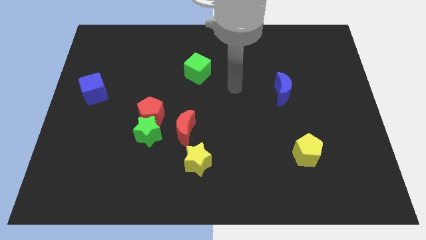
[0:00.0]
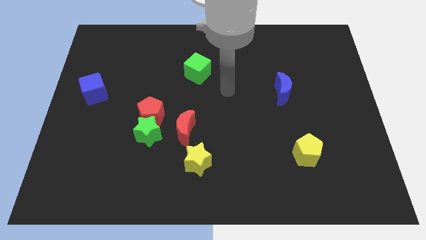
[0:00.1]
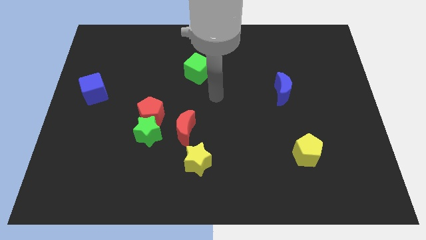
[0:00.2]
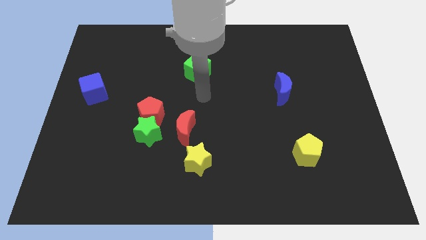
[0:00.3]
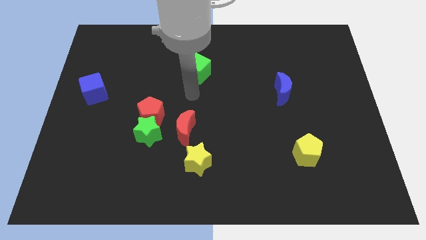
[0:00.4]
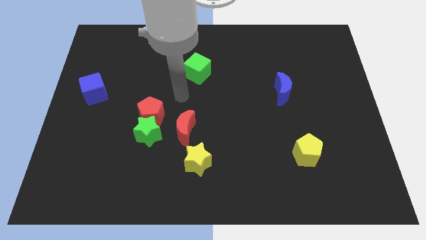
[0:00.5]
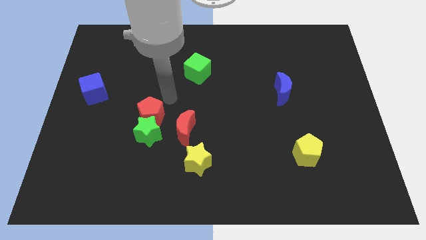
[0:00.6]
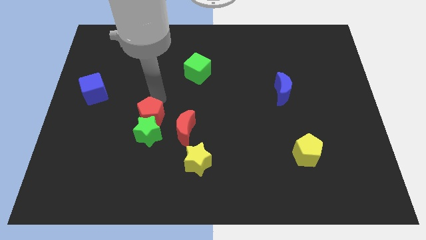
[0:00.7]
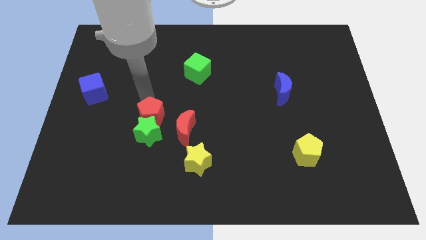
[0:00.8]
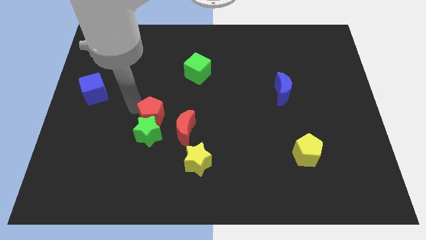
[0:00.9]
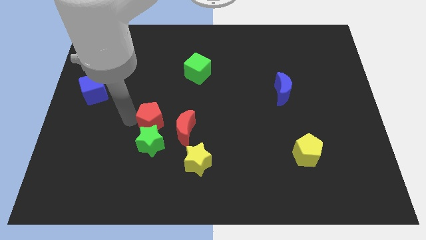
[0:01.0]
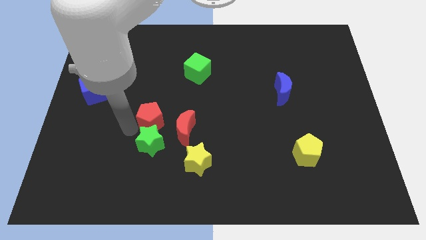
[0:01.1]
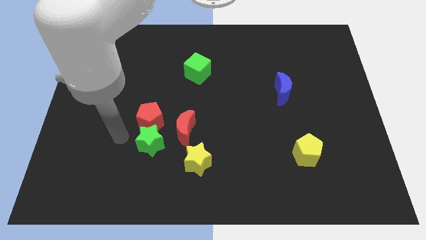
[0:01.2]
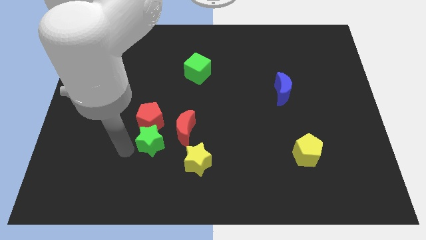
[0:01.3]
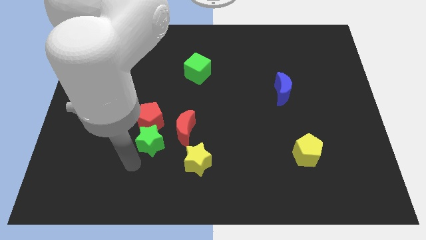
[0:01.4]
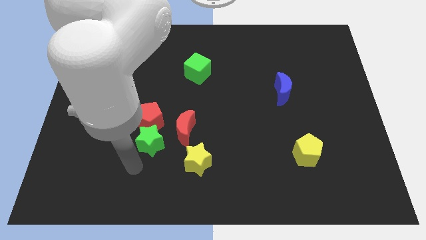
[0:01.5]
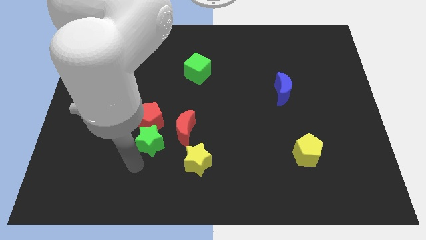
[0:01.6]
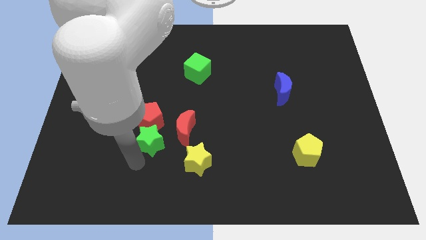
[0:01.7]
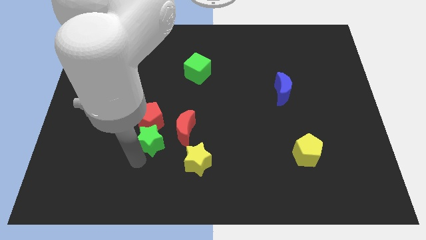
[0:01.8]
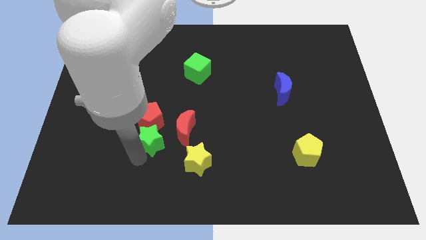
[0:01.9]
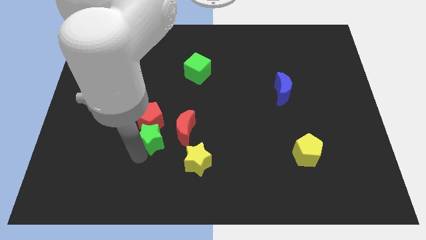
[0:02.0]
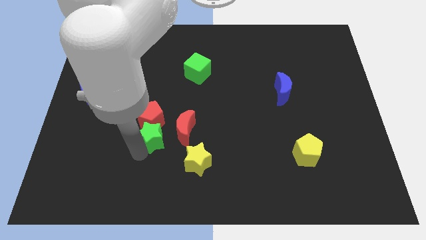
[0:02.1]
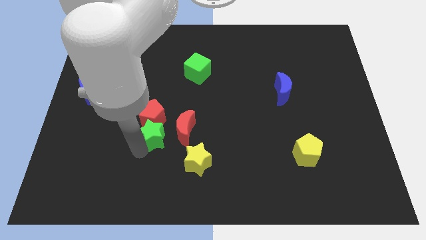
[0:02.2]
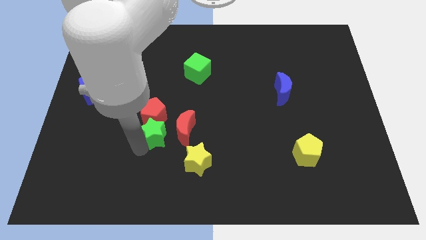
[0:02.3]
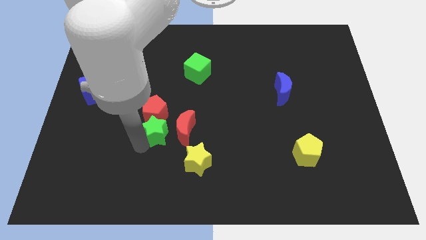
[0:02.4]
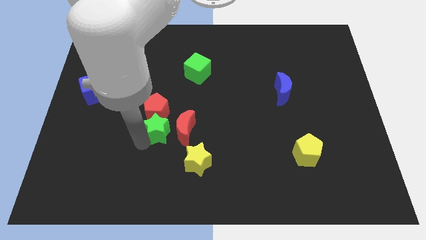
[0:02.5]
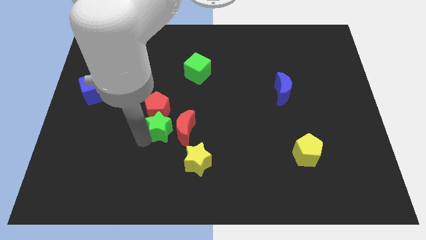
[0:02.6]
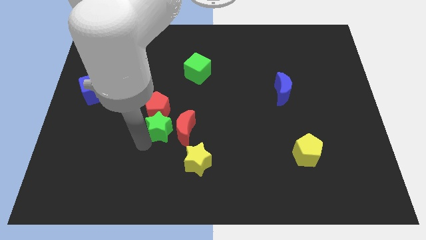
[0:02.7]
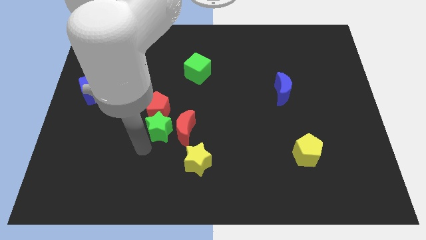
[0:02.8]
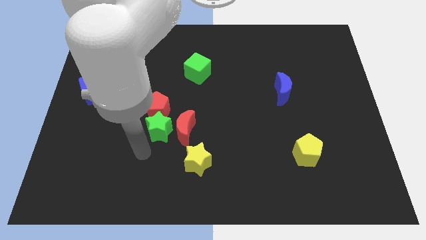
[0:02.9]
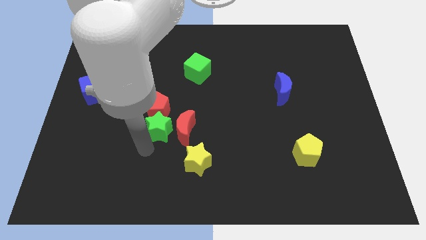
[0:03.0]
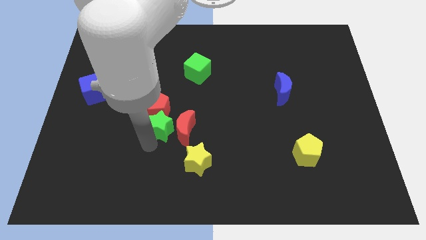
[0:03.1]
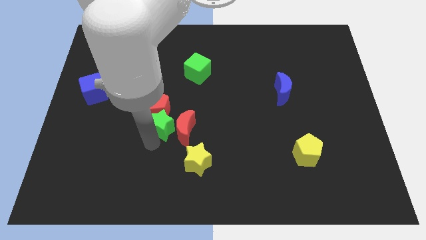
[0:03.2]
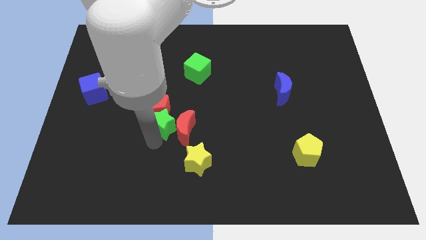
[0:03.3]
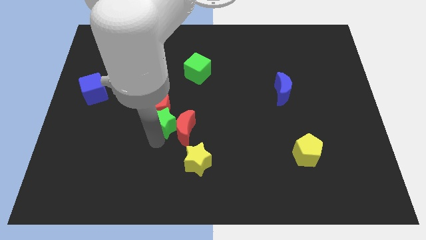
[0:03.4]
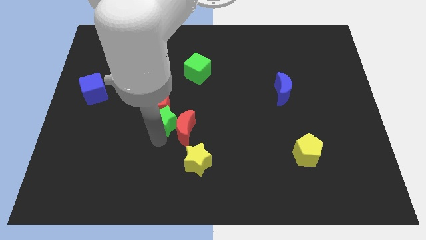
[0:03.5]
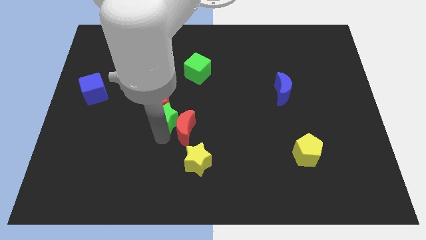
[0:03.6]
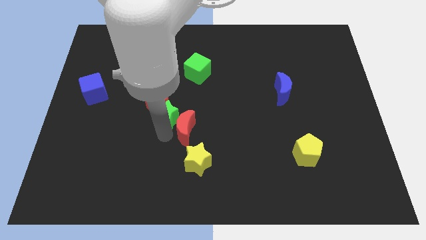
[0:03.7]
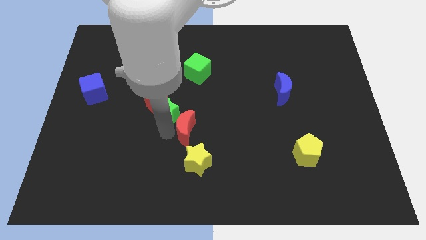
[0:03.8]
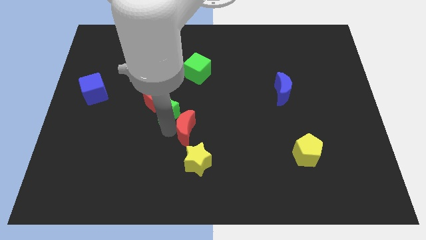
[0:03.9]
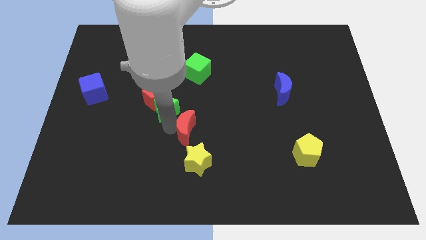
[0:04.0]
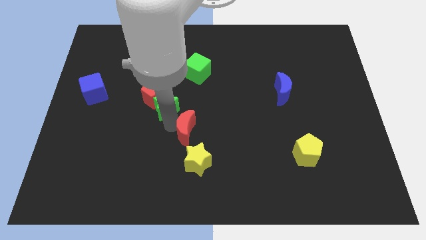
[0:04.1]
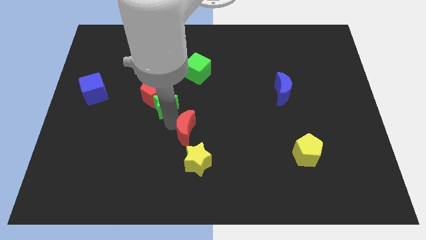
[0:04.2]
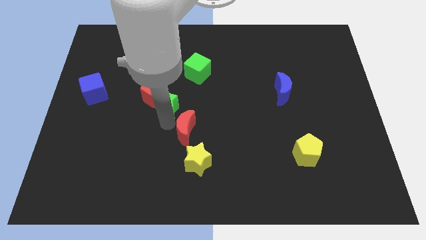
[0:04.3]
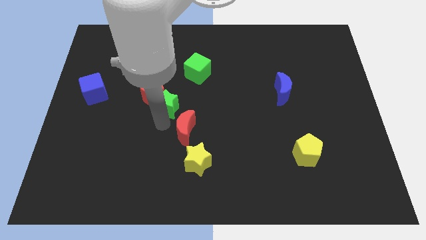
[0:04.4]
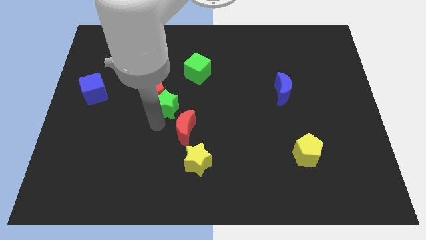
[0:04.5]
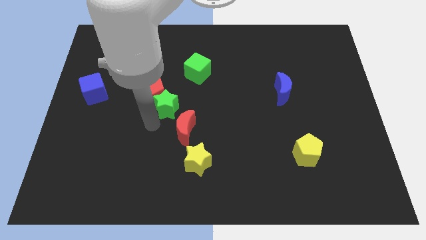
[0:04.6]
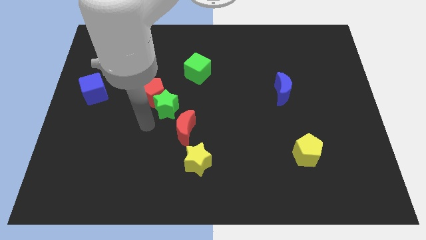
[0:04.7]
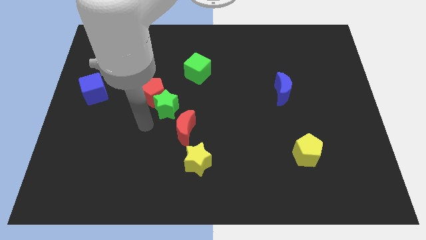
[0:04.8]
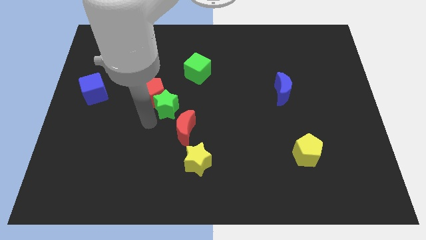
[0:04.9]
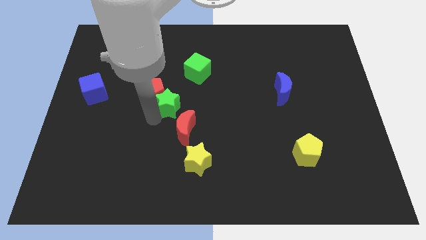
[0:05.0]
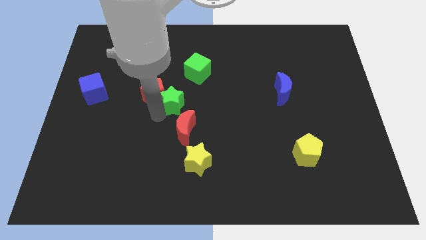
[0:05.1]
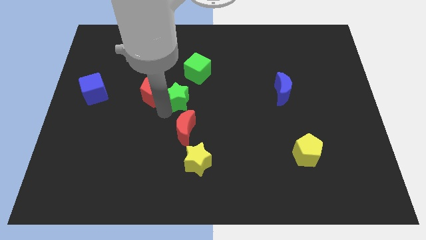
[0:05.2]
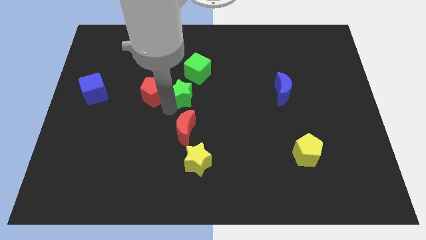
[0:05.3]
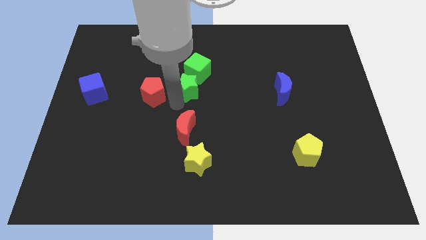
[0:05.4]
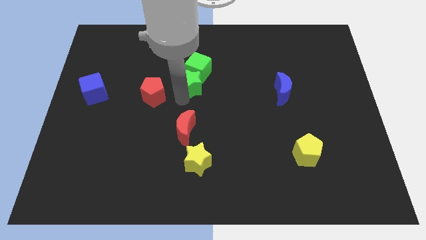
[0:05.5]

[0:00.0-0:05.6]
push the green star towards the green cube
